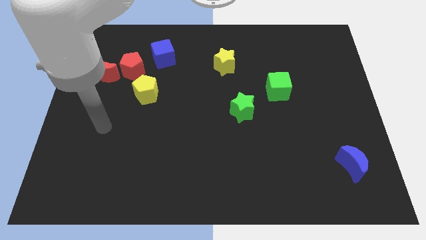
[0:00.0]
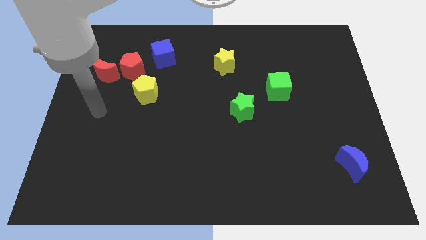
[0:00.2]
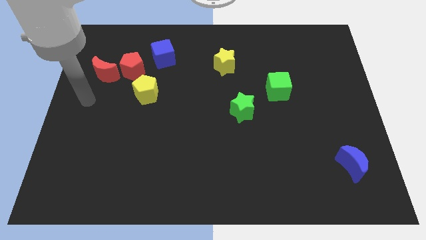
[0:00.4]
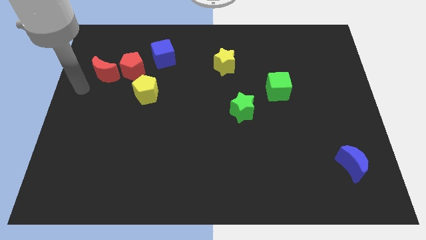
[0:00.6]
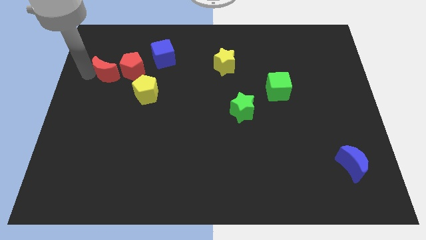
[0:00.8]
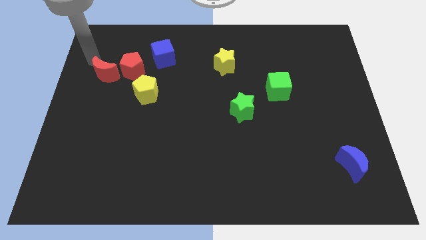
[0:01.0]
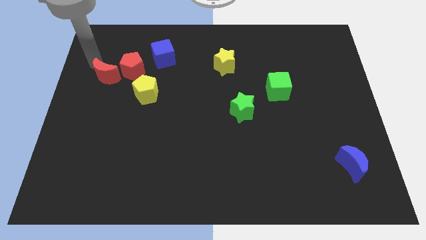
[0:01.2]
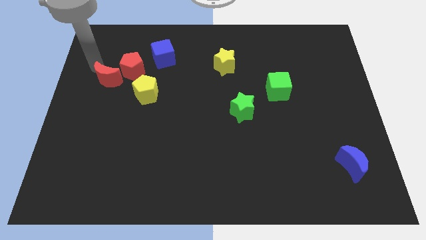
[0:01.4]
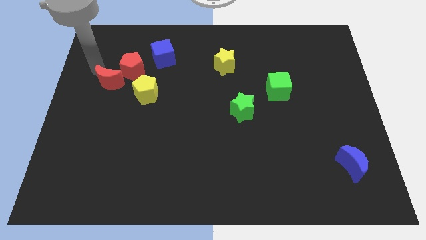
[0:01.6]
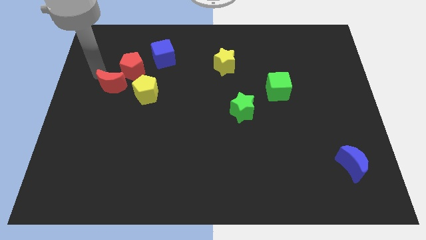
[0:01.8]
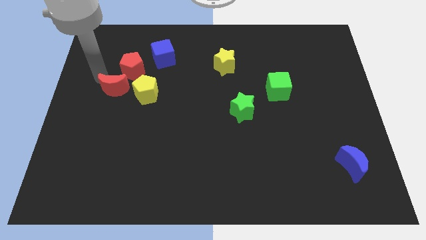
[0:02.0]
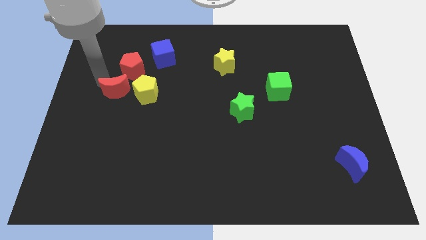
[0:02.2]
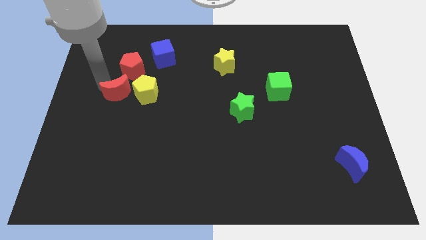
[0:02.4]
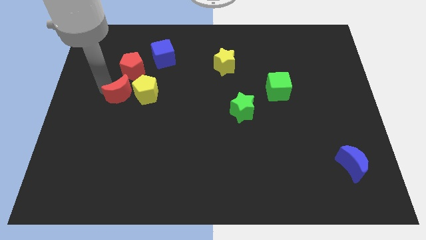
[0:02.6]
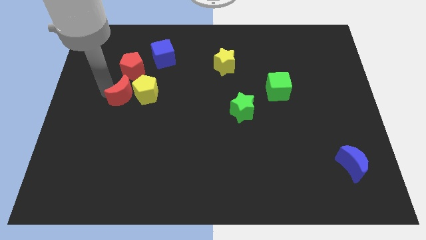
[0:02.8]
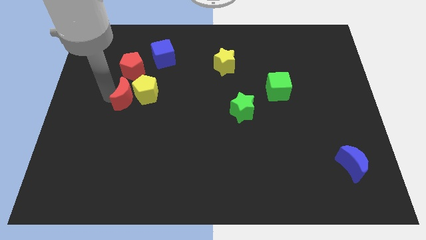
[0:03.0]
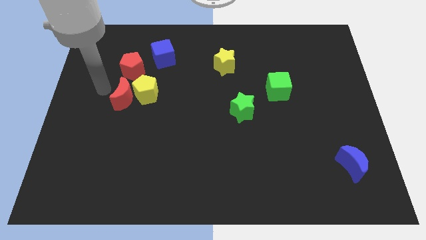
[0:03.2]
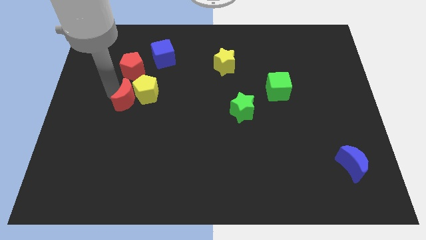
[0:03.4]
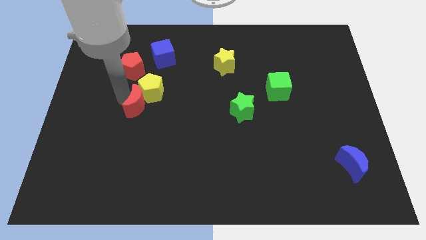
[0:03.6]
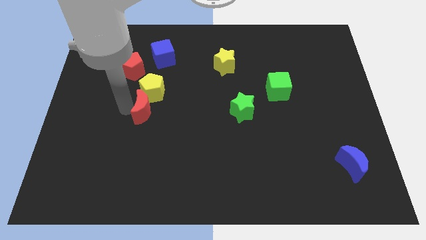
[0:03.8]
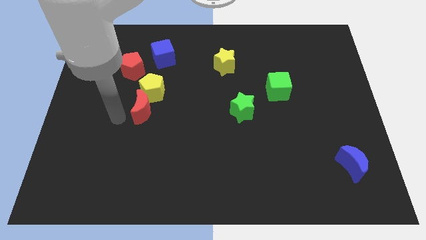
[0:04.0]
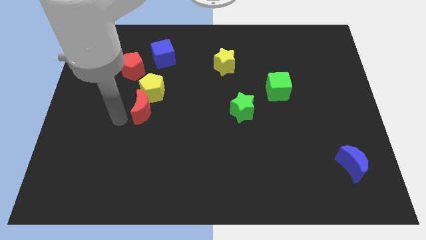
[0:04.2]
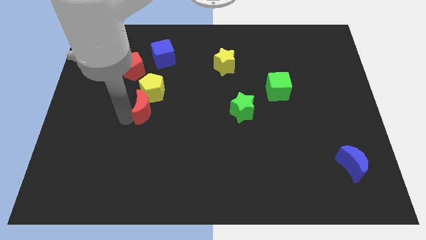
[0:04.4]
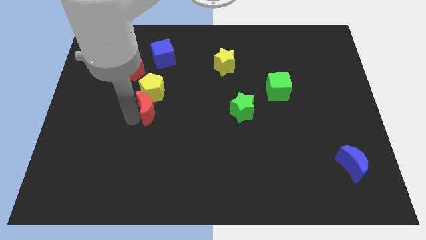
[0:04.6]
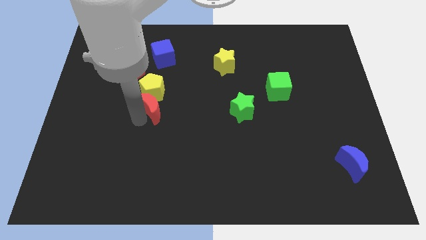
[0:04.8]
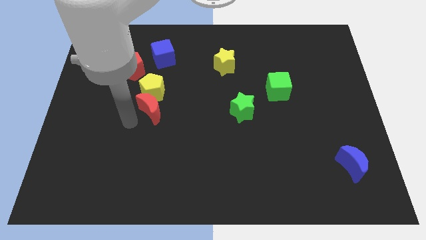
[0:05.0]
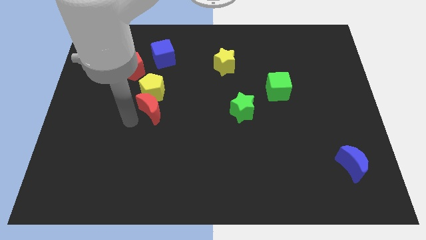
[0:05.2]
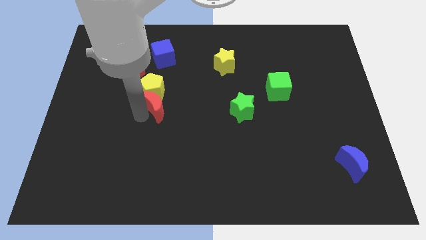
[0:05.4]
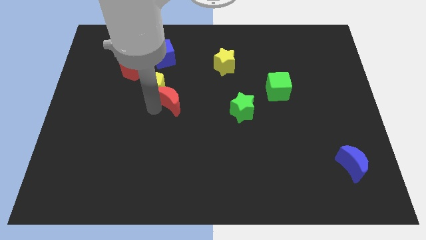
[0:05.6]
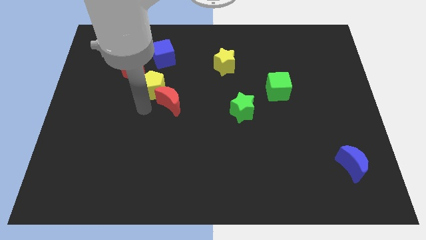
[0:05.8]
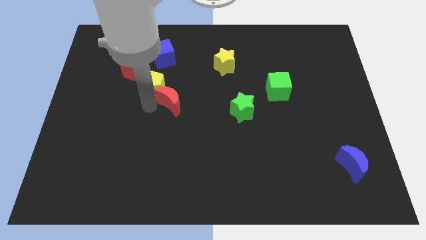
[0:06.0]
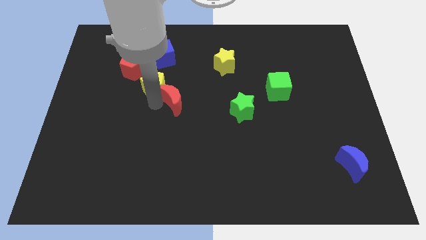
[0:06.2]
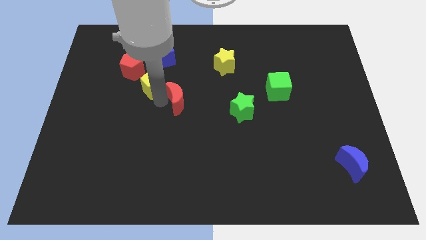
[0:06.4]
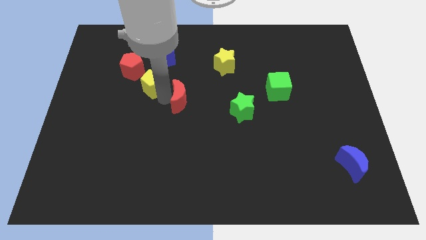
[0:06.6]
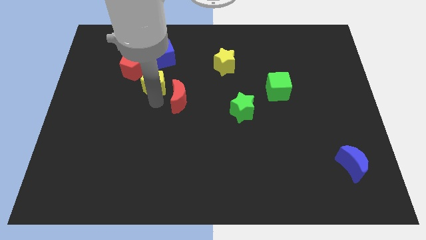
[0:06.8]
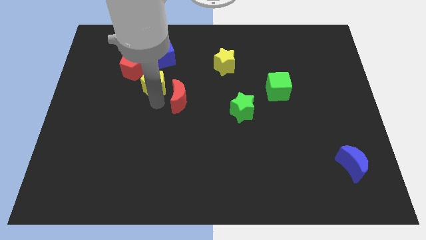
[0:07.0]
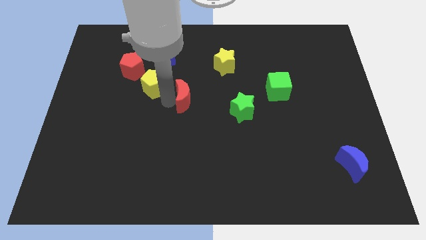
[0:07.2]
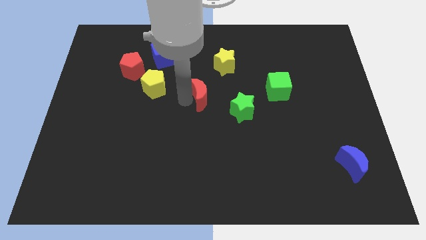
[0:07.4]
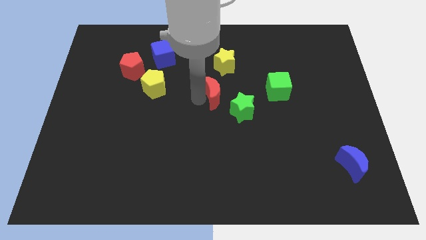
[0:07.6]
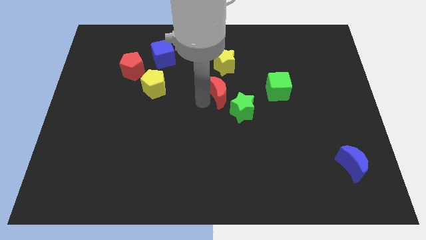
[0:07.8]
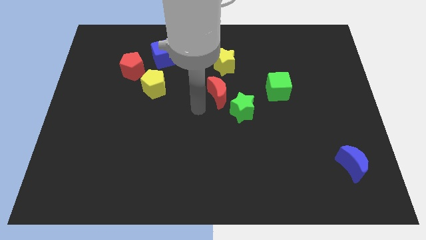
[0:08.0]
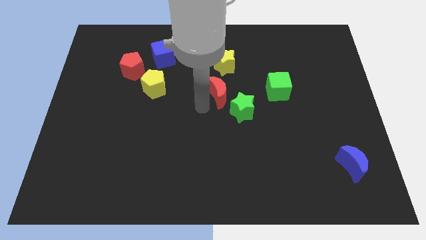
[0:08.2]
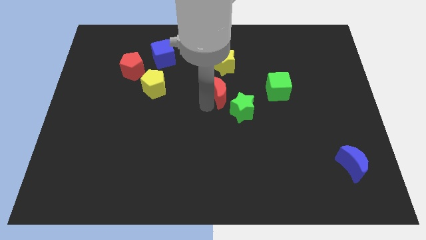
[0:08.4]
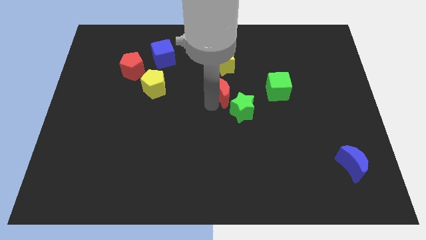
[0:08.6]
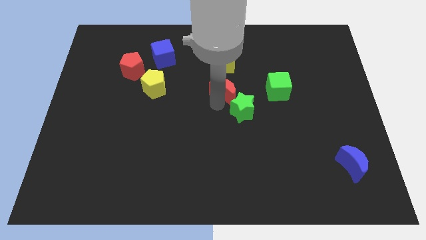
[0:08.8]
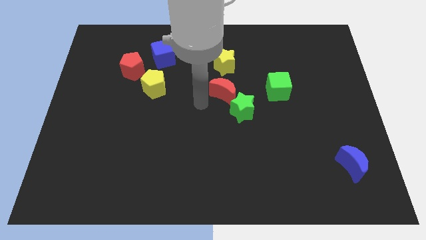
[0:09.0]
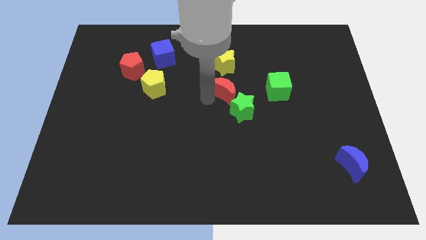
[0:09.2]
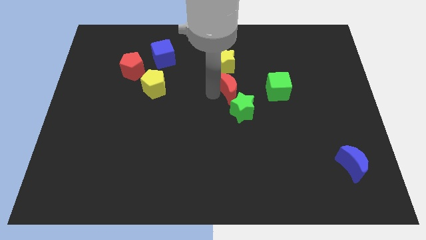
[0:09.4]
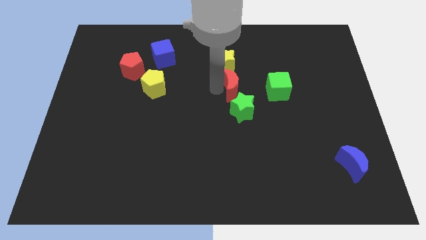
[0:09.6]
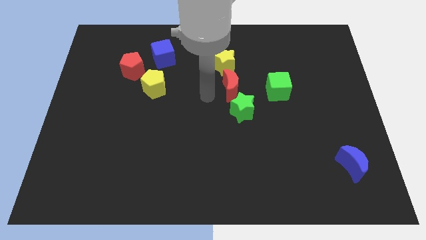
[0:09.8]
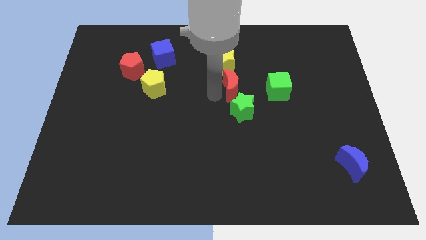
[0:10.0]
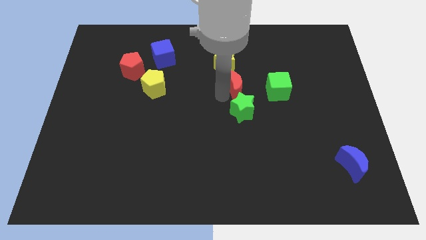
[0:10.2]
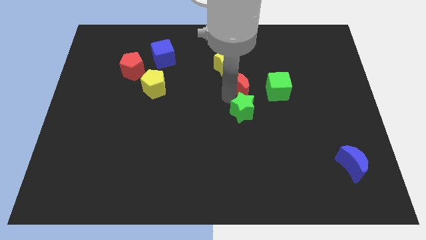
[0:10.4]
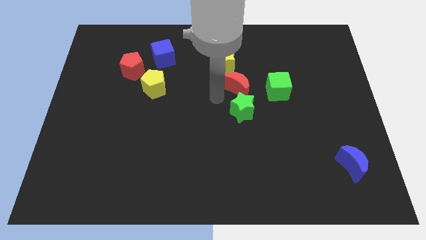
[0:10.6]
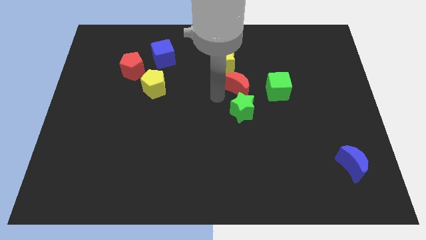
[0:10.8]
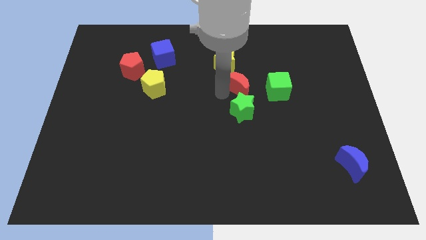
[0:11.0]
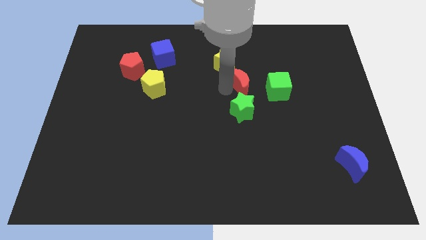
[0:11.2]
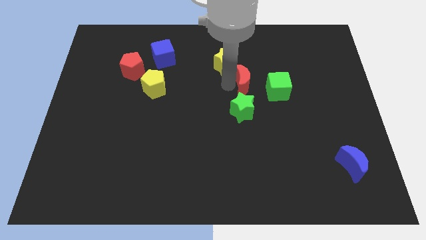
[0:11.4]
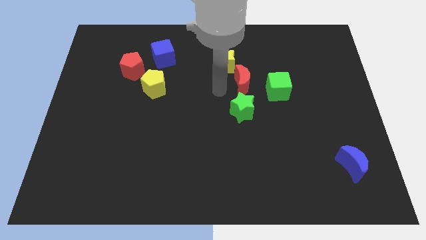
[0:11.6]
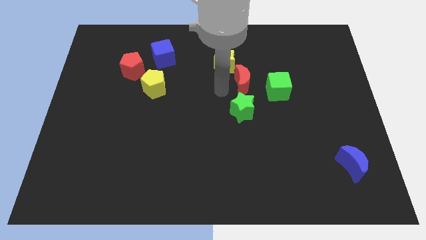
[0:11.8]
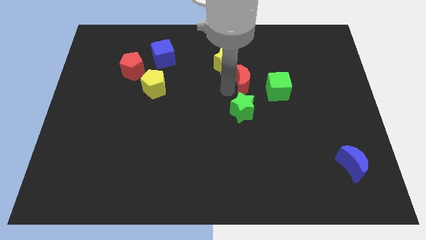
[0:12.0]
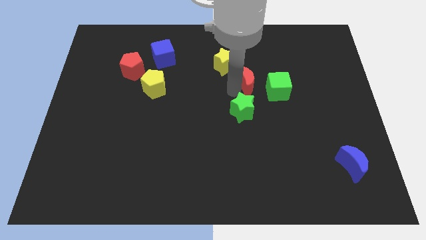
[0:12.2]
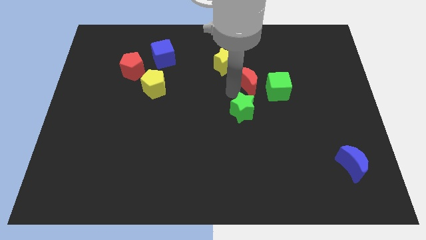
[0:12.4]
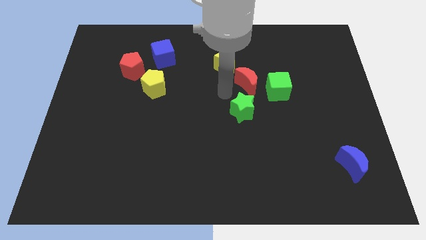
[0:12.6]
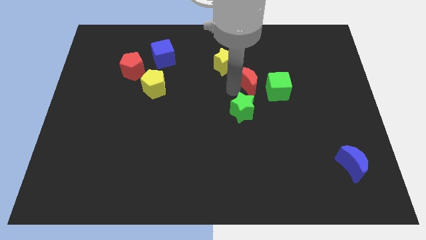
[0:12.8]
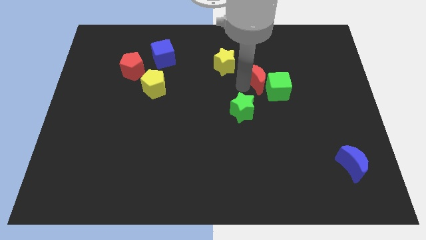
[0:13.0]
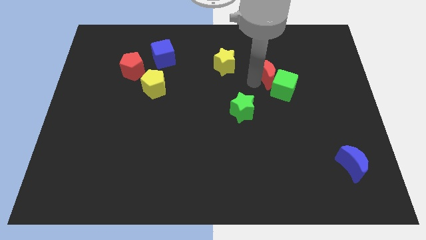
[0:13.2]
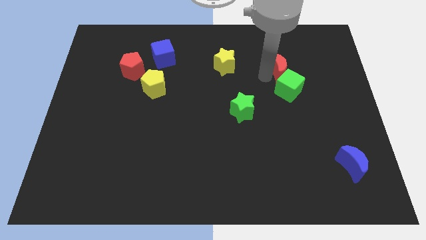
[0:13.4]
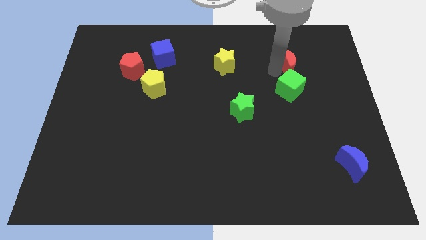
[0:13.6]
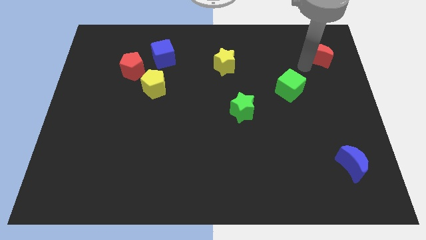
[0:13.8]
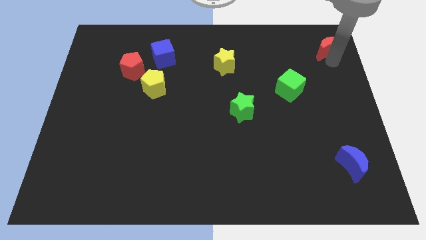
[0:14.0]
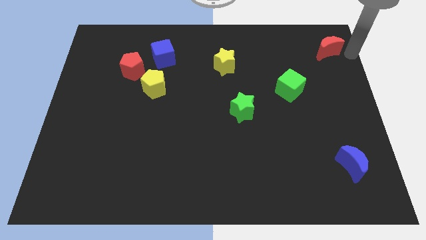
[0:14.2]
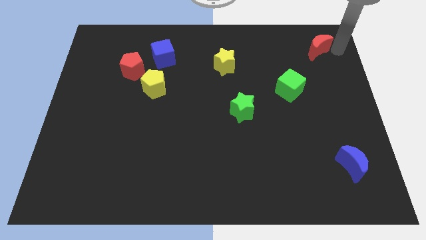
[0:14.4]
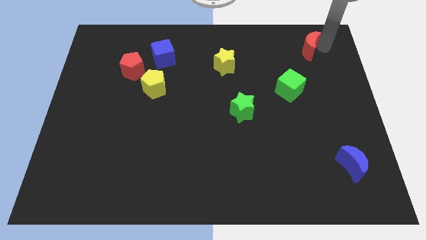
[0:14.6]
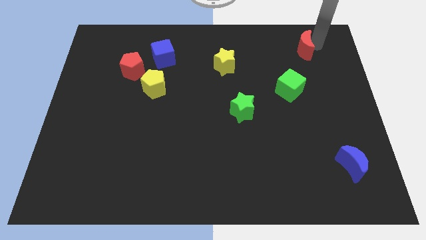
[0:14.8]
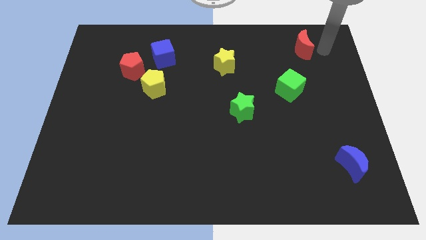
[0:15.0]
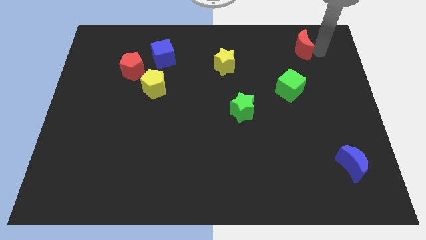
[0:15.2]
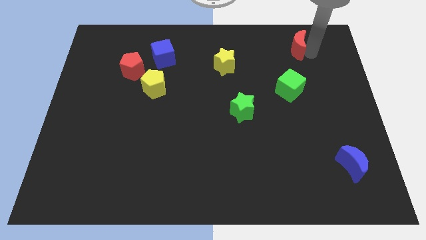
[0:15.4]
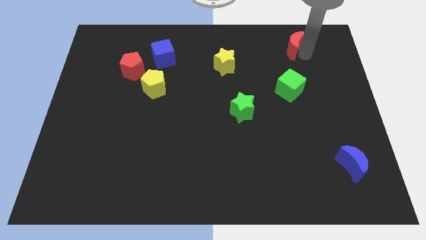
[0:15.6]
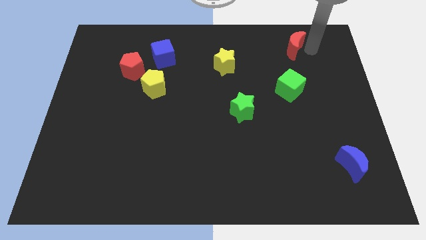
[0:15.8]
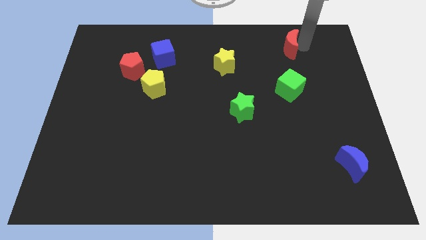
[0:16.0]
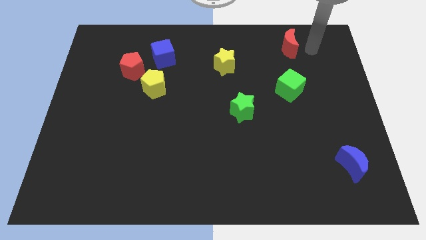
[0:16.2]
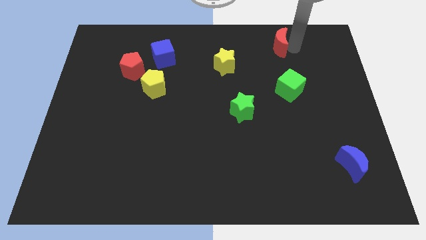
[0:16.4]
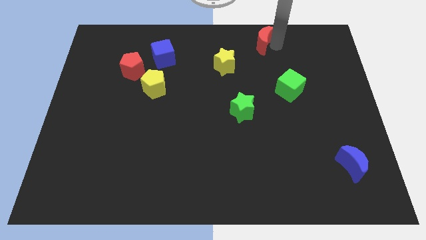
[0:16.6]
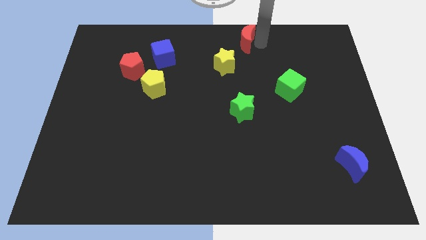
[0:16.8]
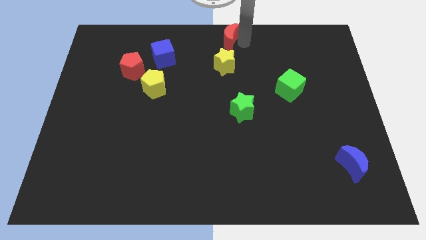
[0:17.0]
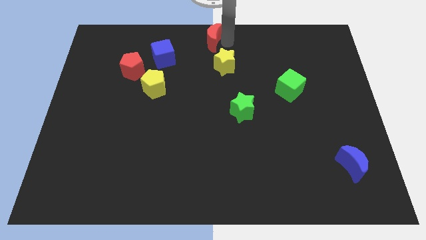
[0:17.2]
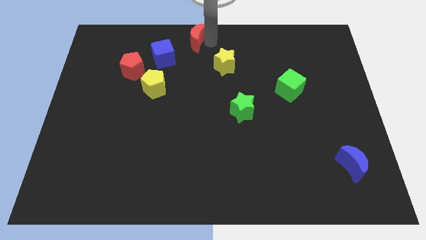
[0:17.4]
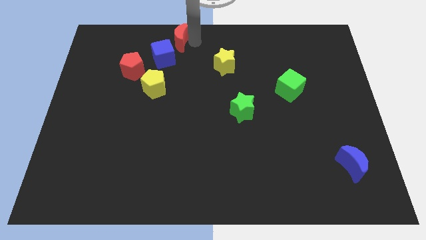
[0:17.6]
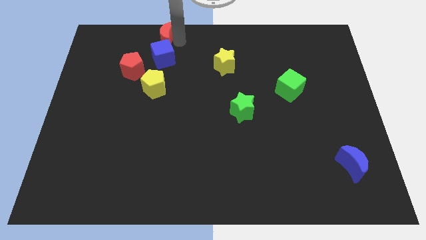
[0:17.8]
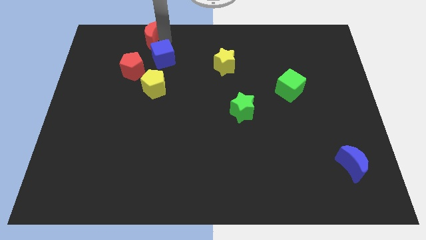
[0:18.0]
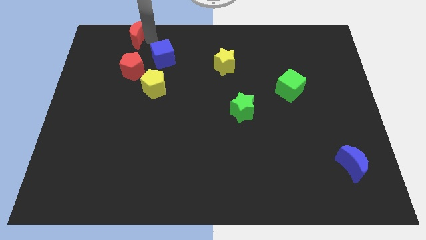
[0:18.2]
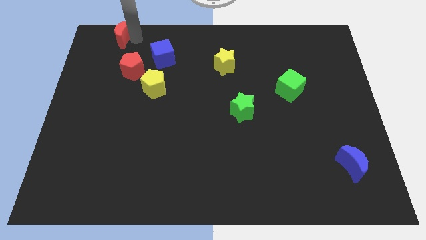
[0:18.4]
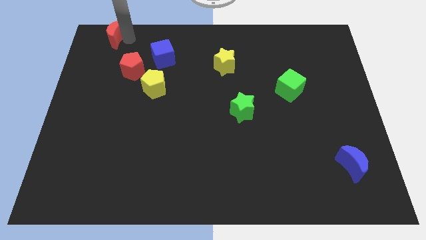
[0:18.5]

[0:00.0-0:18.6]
put the red moon to the upper left corner
